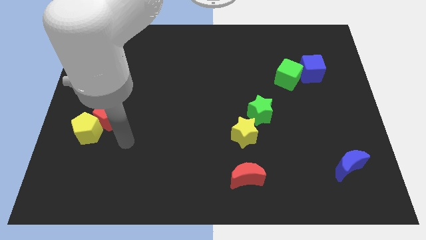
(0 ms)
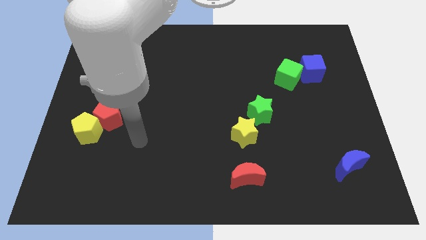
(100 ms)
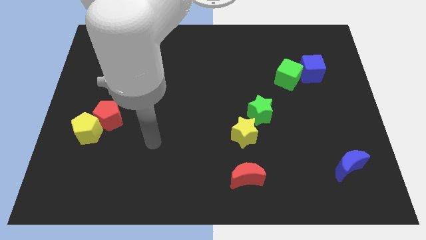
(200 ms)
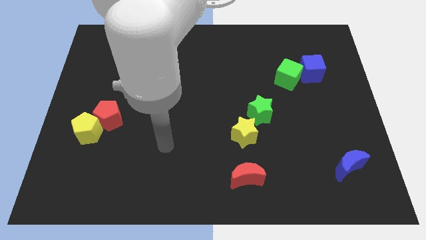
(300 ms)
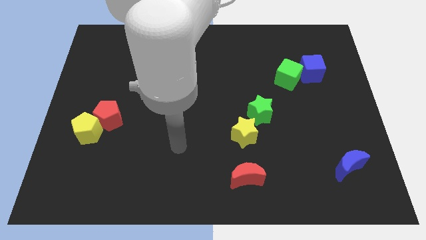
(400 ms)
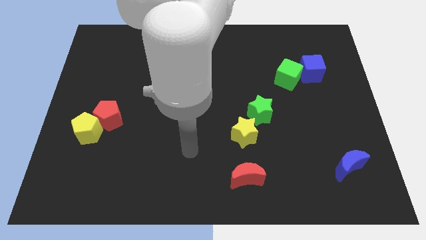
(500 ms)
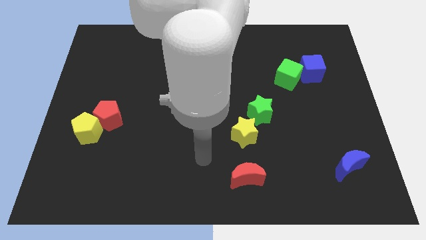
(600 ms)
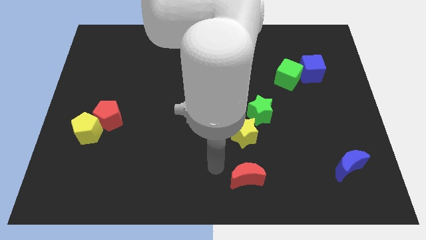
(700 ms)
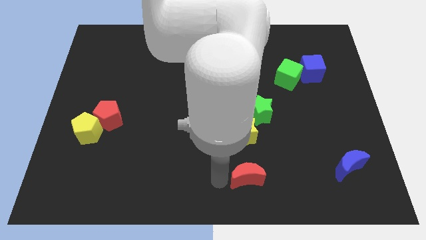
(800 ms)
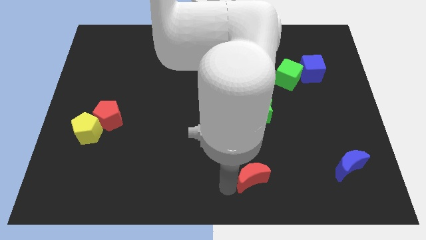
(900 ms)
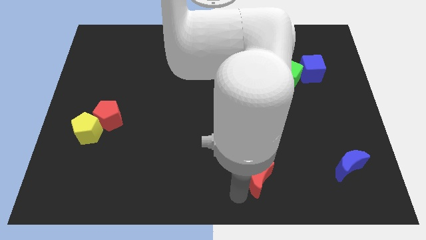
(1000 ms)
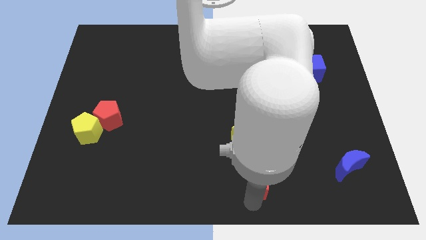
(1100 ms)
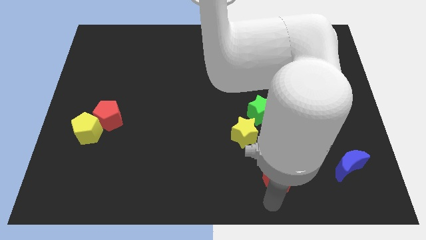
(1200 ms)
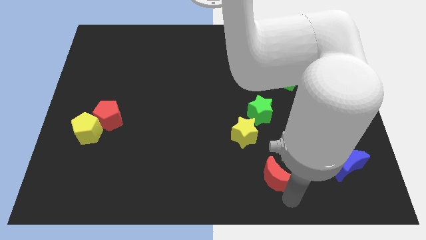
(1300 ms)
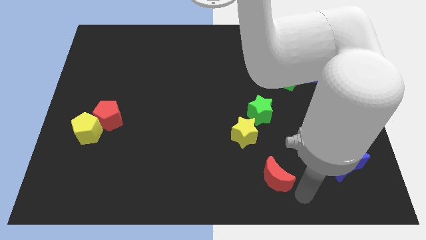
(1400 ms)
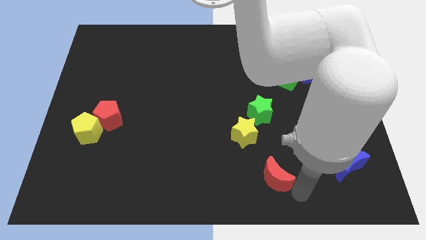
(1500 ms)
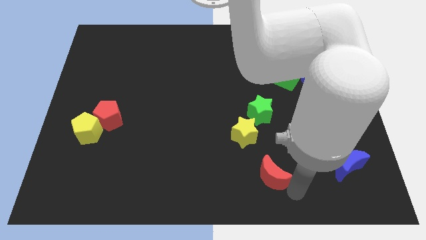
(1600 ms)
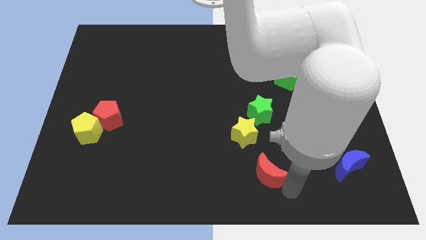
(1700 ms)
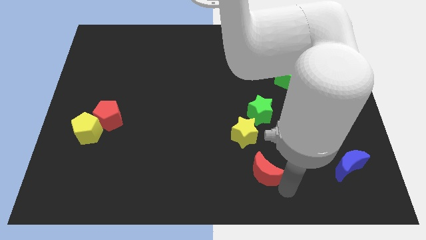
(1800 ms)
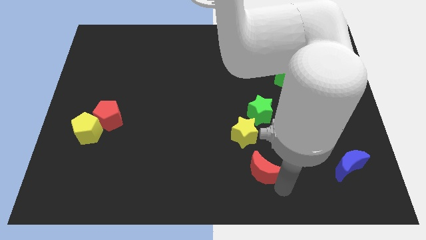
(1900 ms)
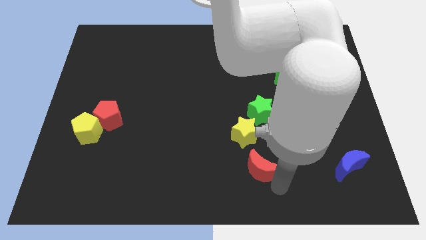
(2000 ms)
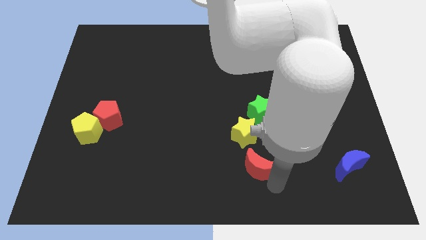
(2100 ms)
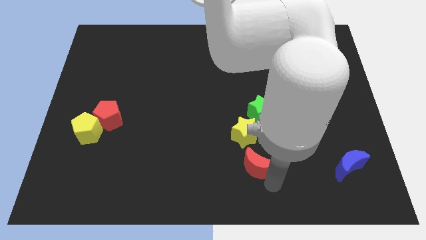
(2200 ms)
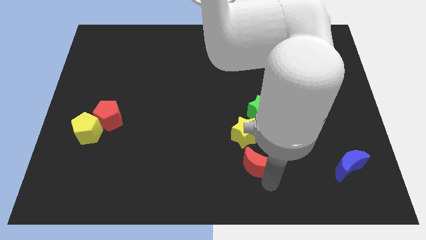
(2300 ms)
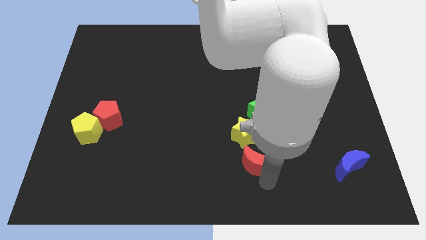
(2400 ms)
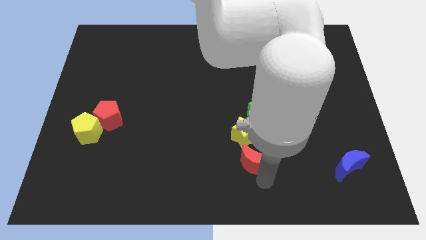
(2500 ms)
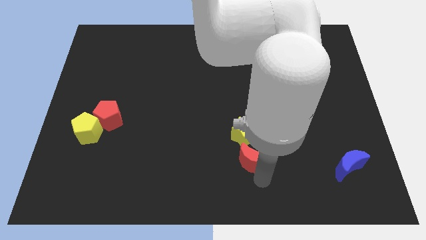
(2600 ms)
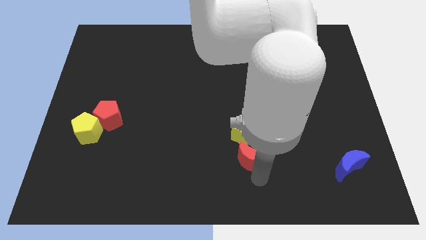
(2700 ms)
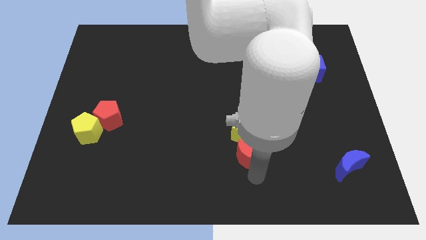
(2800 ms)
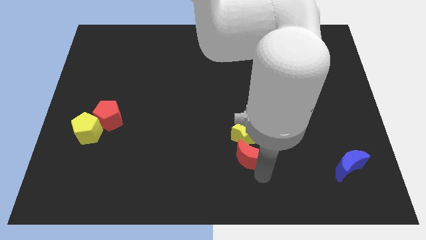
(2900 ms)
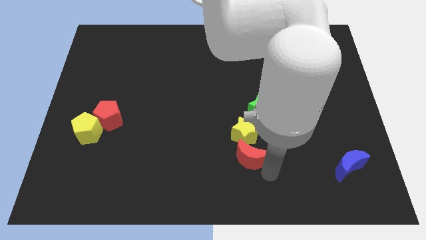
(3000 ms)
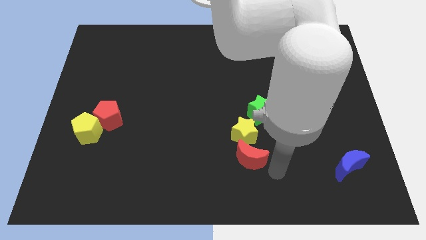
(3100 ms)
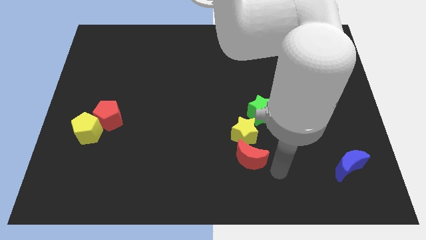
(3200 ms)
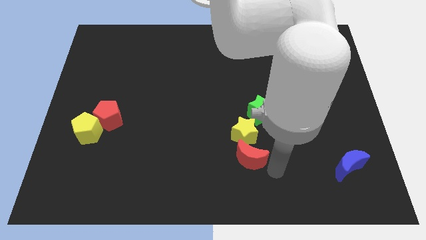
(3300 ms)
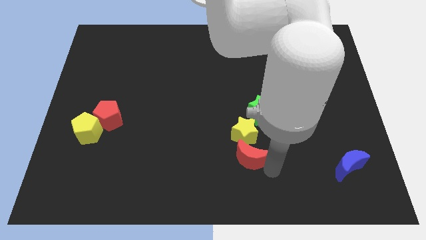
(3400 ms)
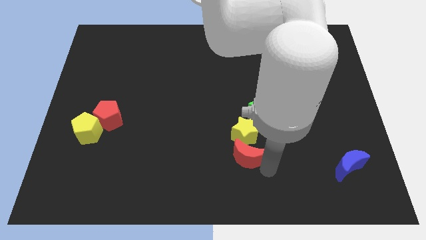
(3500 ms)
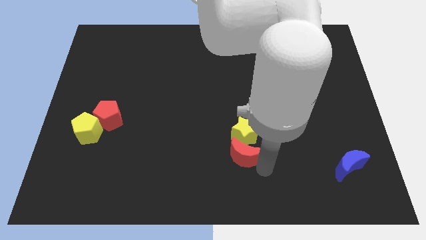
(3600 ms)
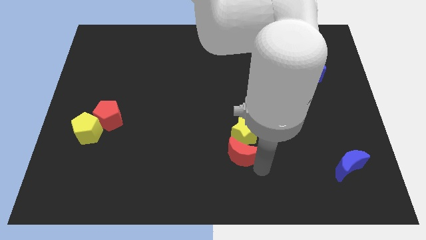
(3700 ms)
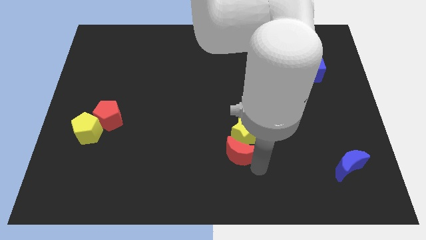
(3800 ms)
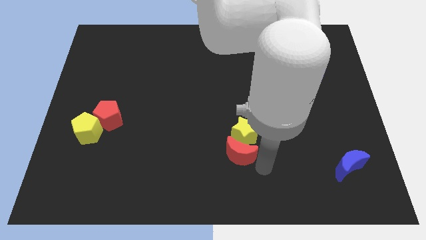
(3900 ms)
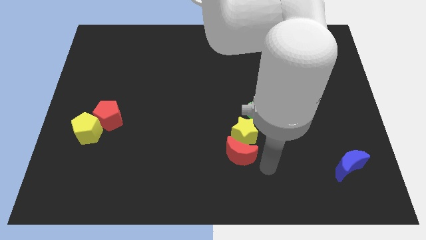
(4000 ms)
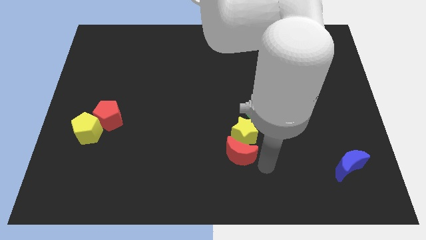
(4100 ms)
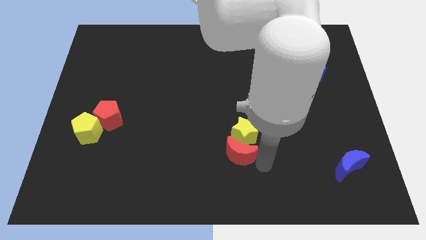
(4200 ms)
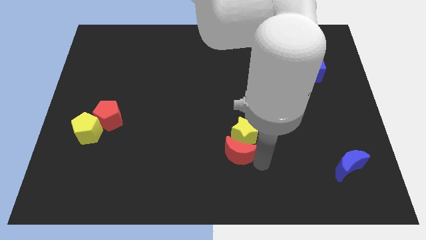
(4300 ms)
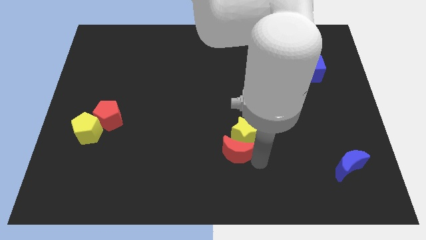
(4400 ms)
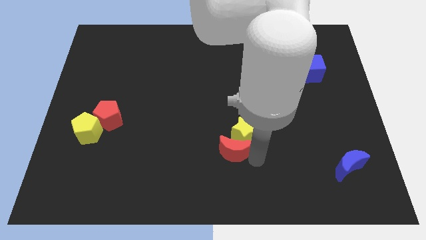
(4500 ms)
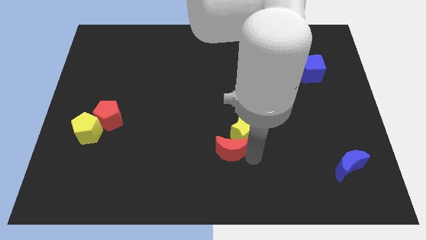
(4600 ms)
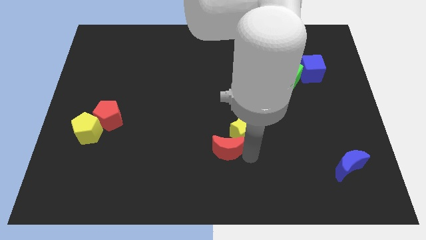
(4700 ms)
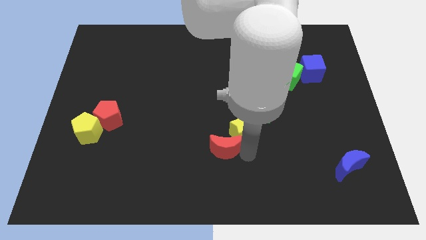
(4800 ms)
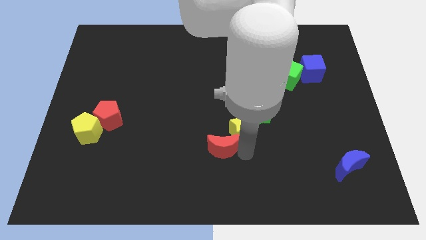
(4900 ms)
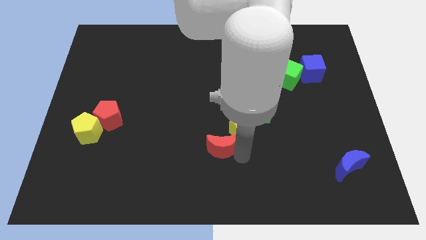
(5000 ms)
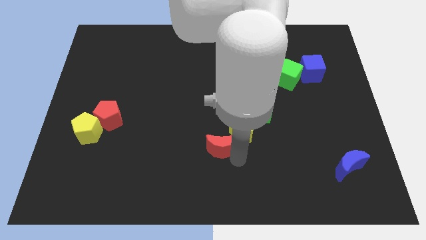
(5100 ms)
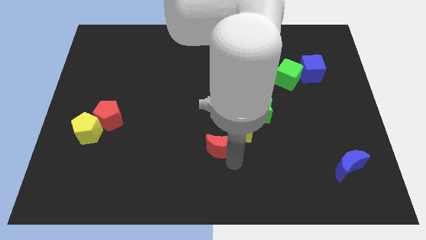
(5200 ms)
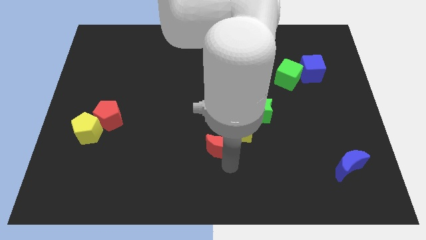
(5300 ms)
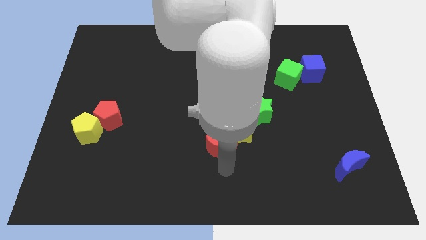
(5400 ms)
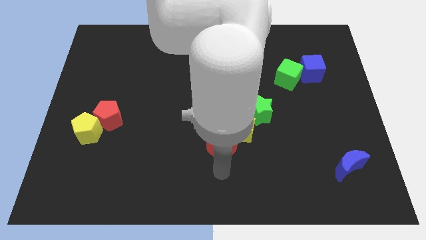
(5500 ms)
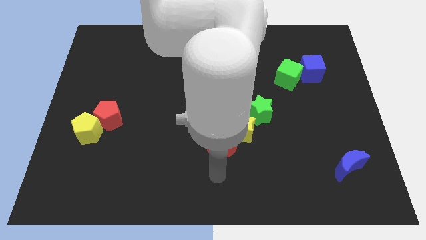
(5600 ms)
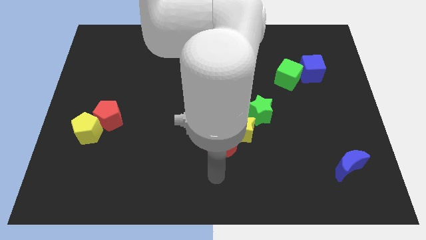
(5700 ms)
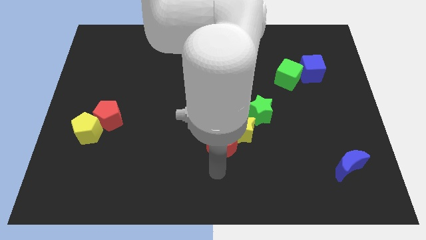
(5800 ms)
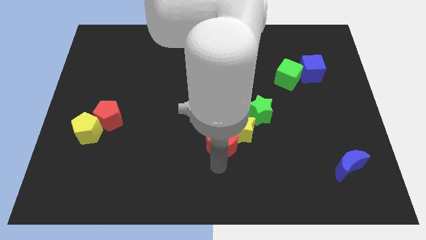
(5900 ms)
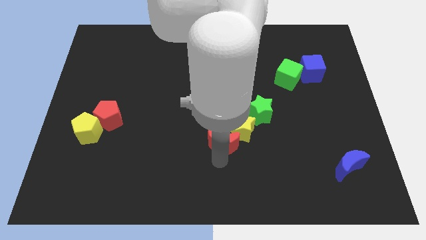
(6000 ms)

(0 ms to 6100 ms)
put the red moon to the center
